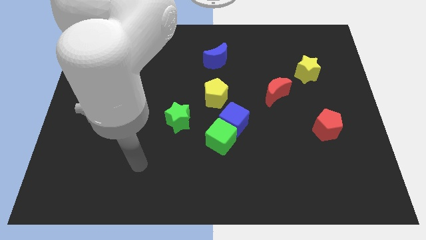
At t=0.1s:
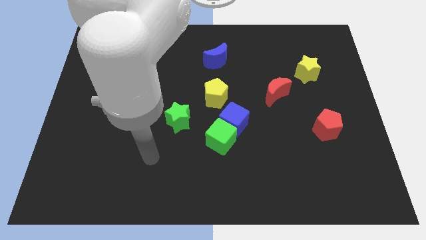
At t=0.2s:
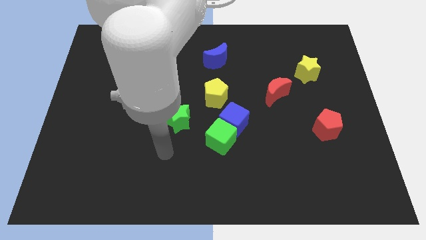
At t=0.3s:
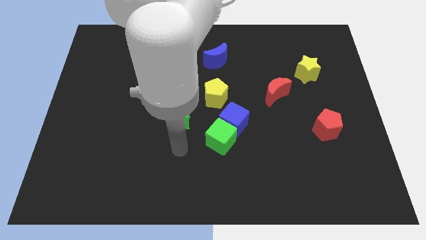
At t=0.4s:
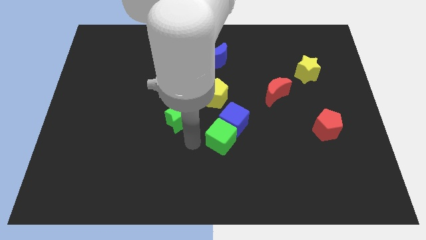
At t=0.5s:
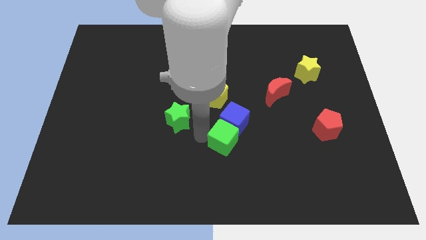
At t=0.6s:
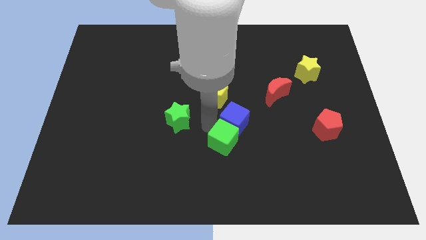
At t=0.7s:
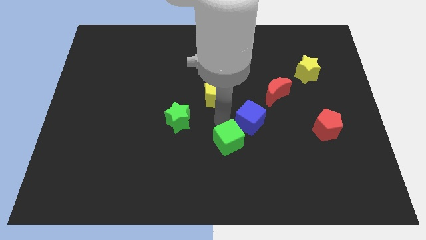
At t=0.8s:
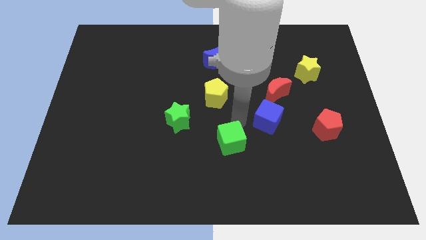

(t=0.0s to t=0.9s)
separate the green cube from the blue cube

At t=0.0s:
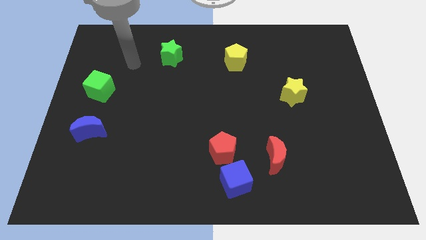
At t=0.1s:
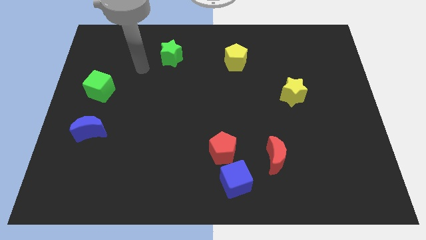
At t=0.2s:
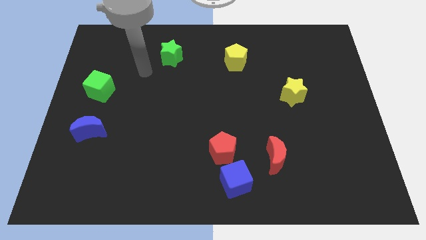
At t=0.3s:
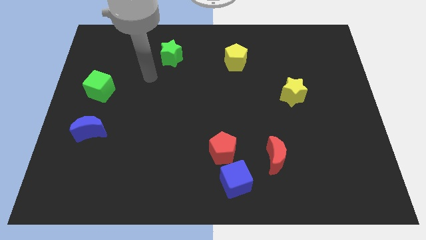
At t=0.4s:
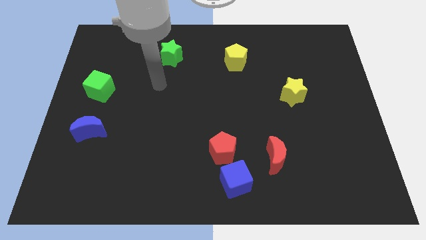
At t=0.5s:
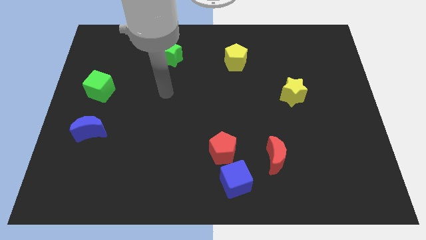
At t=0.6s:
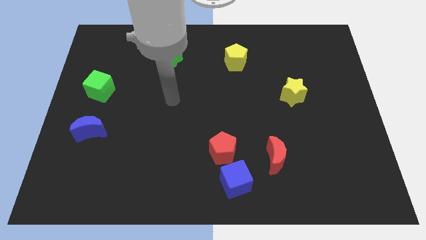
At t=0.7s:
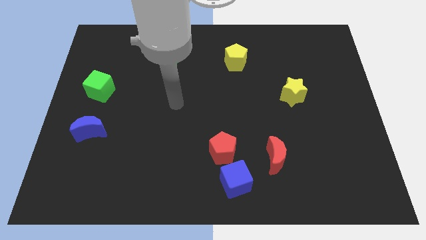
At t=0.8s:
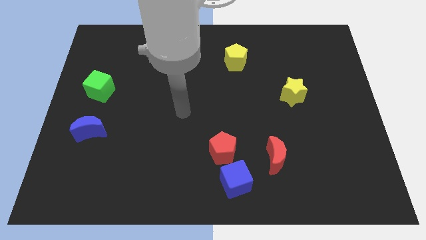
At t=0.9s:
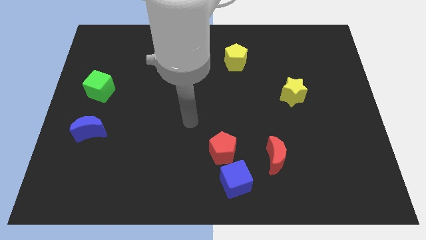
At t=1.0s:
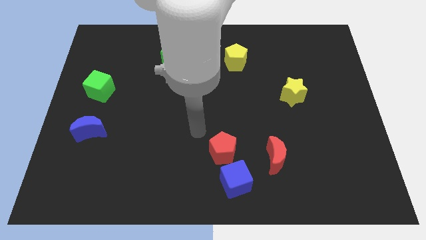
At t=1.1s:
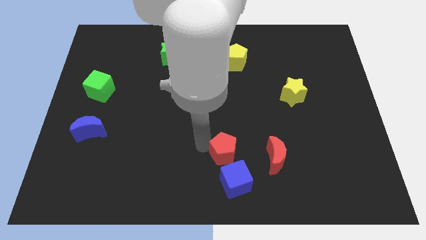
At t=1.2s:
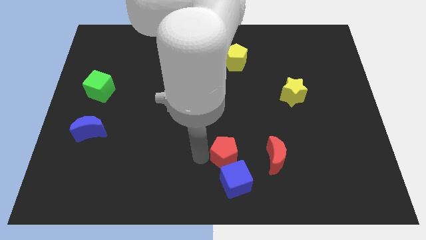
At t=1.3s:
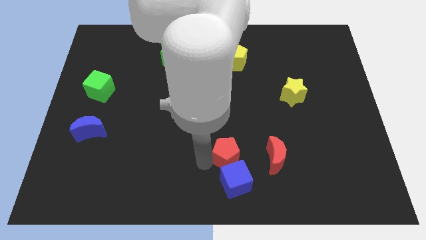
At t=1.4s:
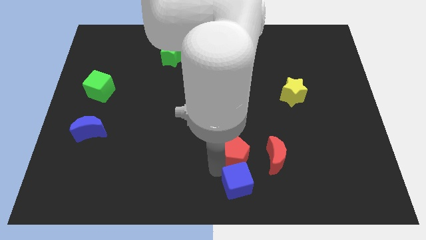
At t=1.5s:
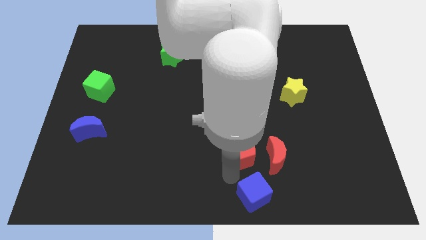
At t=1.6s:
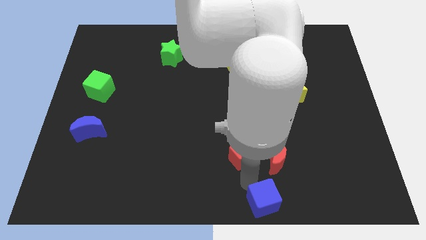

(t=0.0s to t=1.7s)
move the red pentagon away from the blue cube

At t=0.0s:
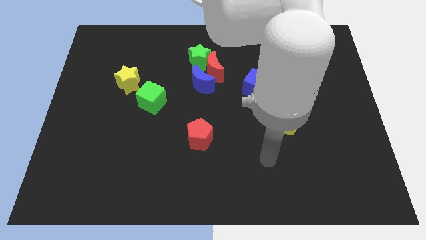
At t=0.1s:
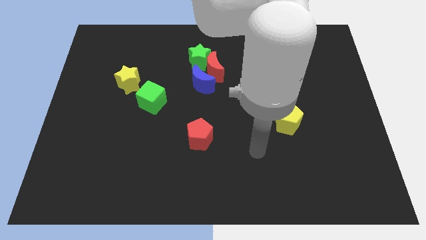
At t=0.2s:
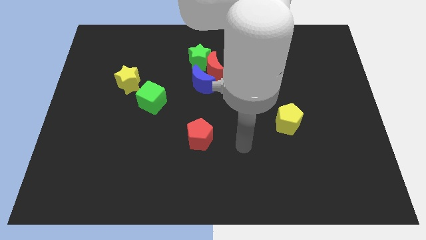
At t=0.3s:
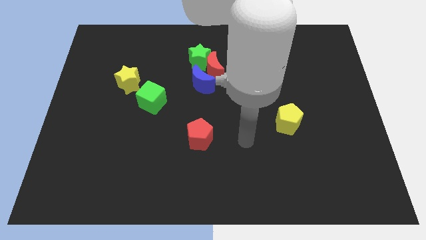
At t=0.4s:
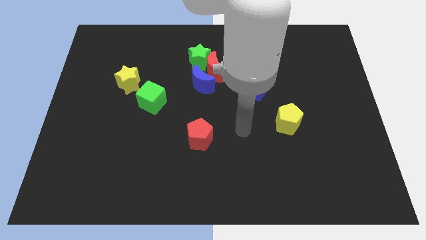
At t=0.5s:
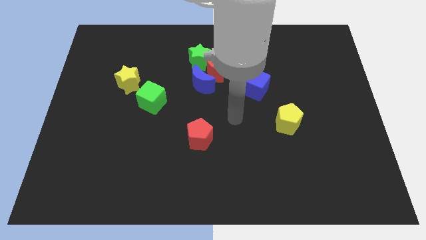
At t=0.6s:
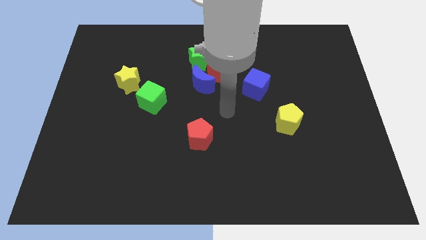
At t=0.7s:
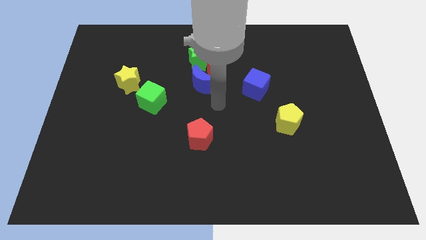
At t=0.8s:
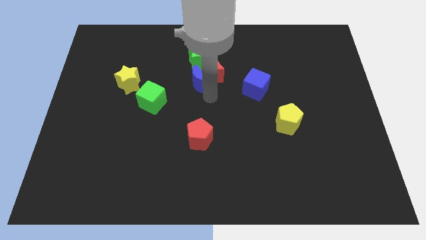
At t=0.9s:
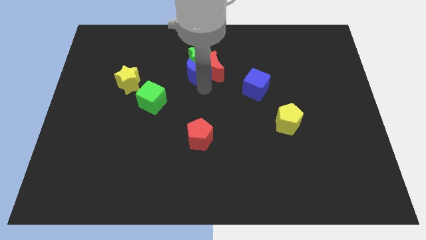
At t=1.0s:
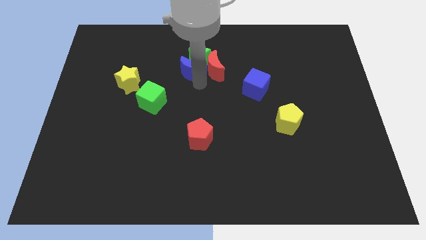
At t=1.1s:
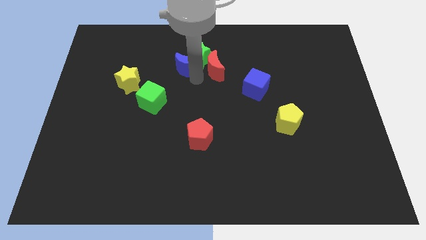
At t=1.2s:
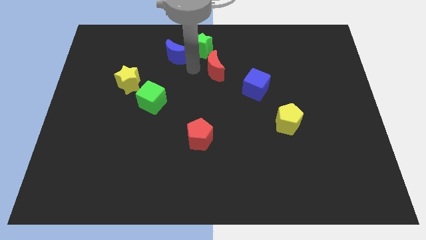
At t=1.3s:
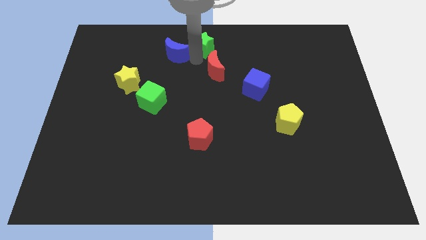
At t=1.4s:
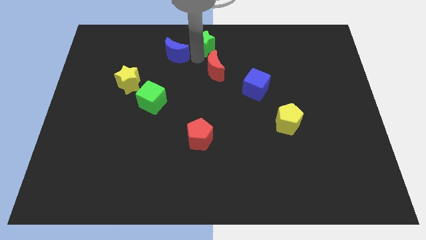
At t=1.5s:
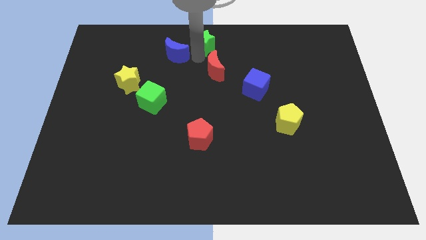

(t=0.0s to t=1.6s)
pull the red moon apart from the green star and blue moon

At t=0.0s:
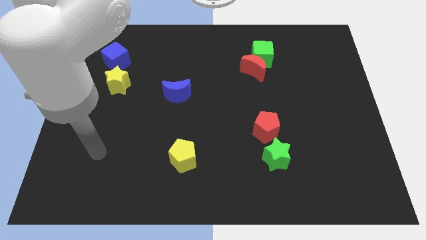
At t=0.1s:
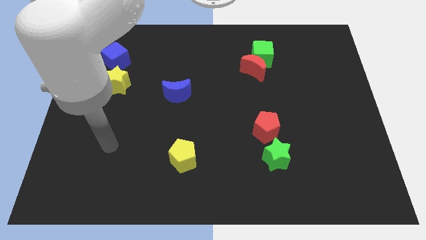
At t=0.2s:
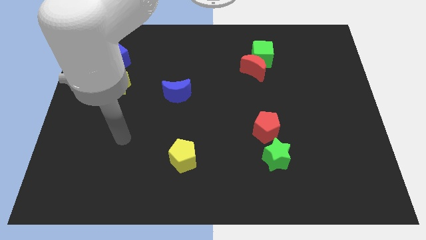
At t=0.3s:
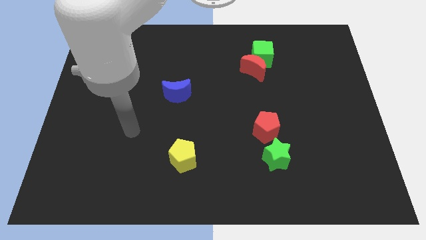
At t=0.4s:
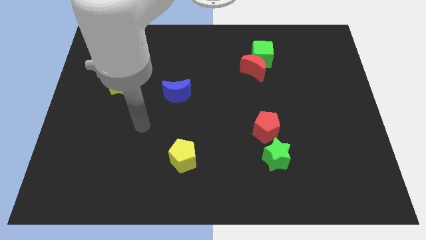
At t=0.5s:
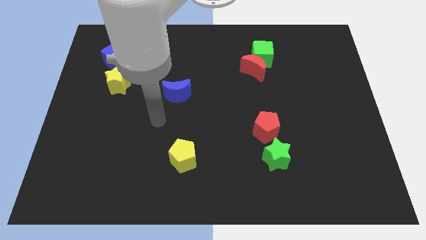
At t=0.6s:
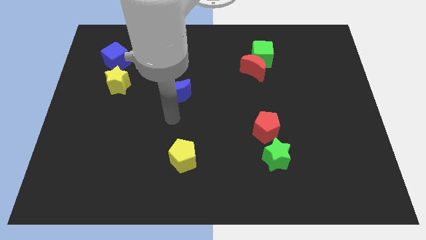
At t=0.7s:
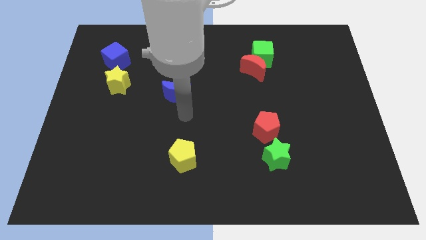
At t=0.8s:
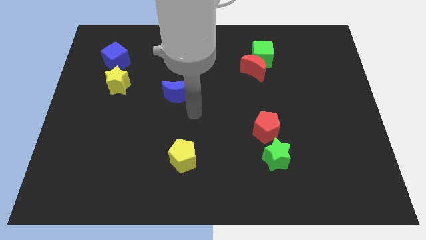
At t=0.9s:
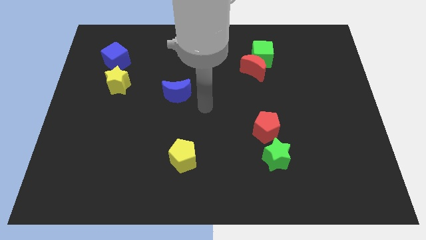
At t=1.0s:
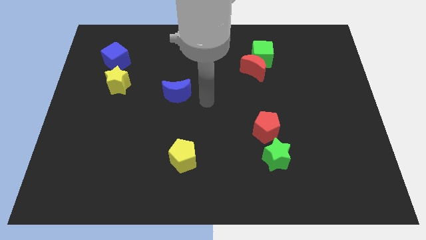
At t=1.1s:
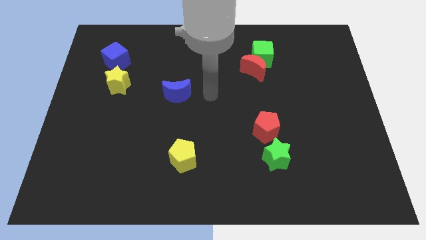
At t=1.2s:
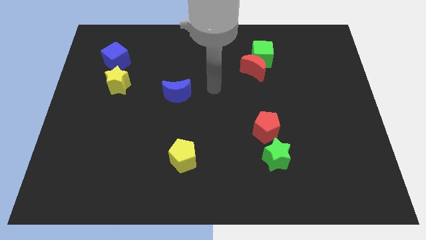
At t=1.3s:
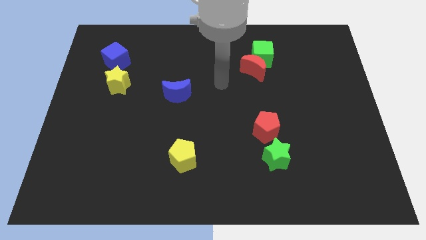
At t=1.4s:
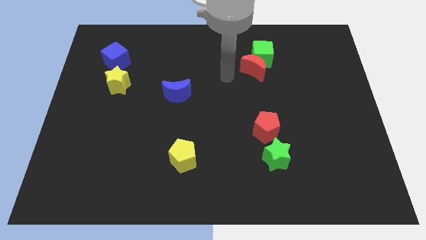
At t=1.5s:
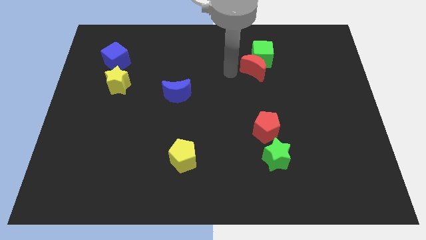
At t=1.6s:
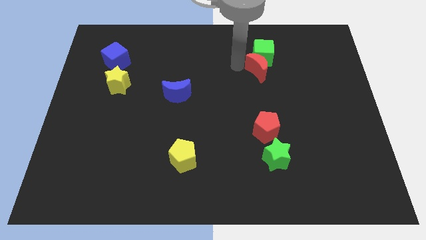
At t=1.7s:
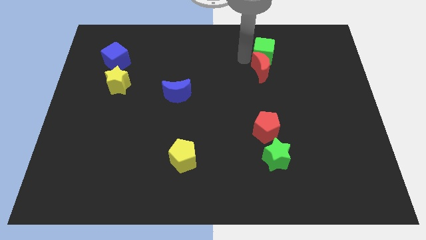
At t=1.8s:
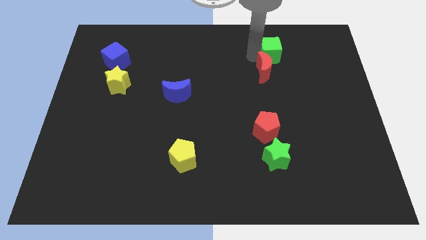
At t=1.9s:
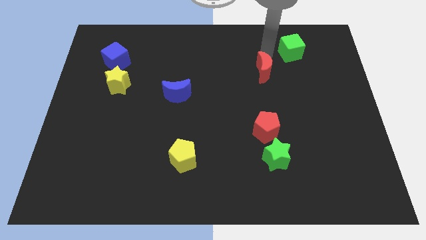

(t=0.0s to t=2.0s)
separate the red moon from the green cube

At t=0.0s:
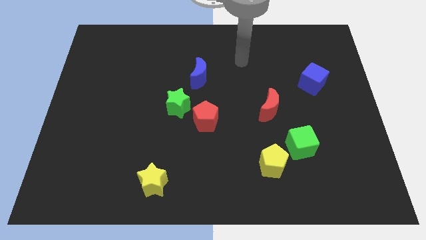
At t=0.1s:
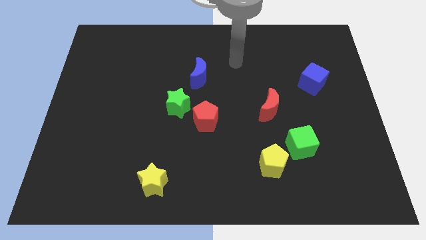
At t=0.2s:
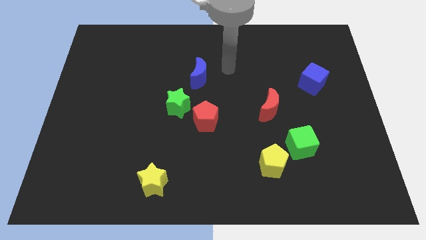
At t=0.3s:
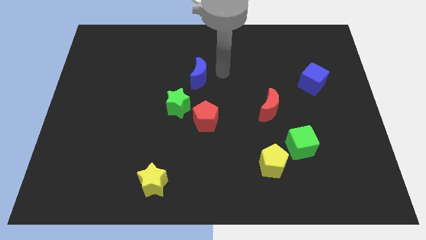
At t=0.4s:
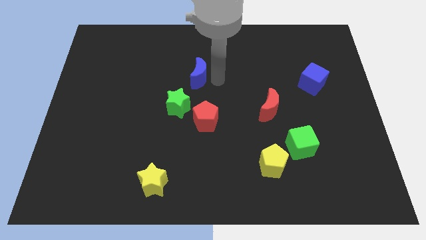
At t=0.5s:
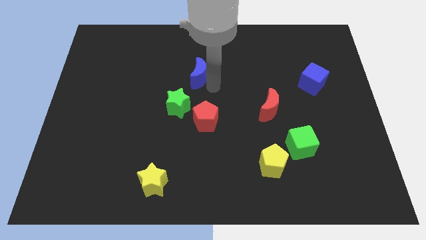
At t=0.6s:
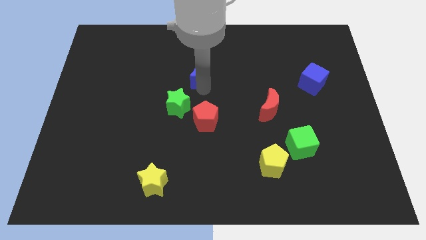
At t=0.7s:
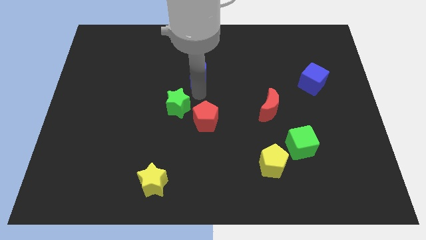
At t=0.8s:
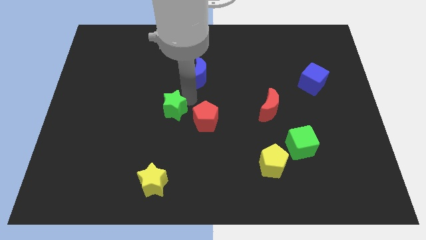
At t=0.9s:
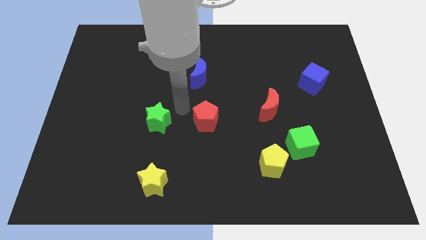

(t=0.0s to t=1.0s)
separate the red pentagon from the green star

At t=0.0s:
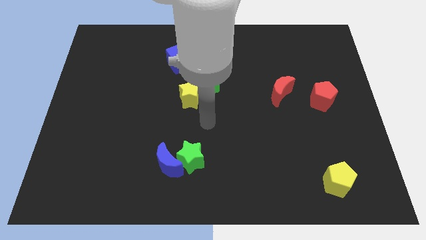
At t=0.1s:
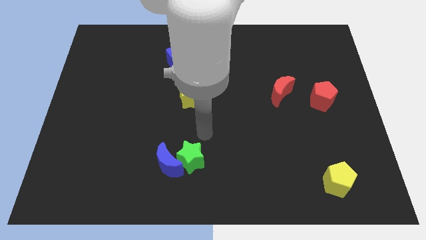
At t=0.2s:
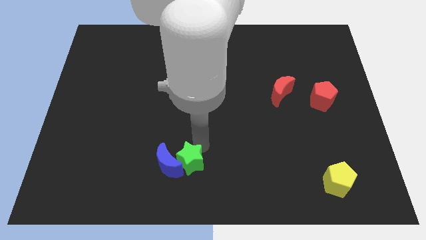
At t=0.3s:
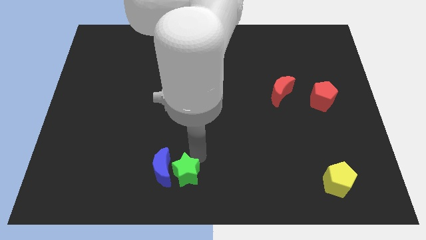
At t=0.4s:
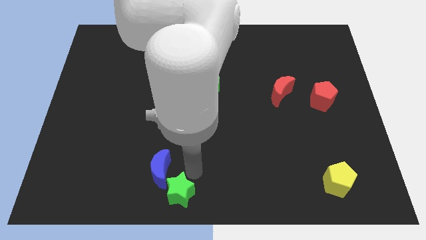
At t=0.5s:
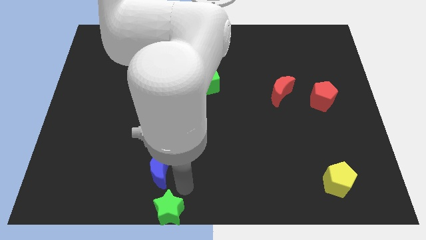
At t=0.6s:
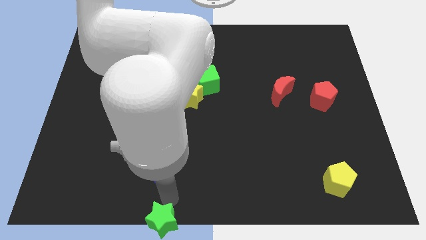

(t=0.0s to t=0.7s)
pull the blue moon apart from the green star

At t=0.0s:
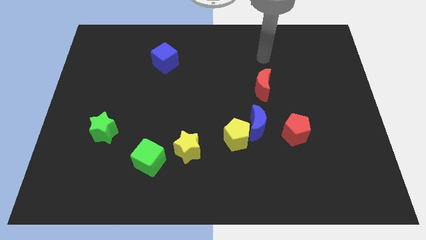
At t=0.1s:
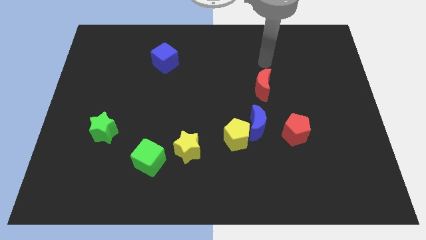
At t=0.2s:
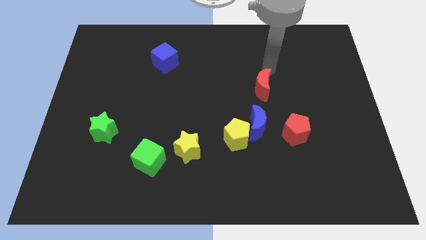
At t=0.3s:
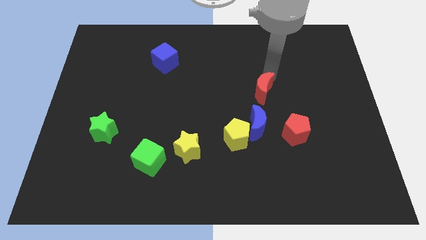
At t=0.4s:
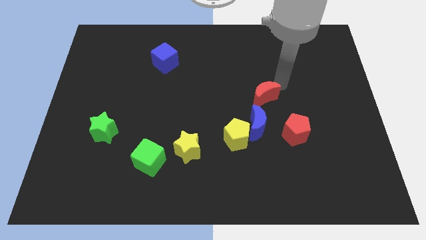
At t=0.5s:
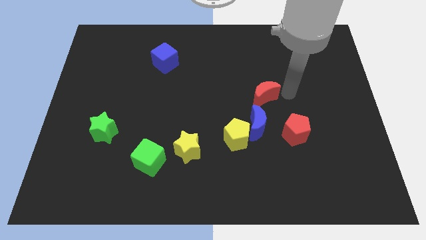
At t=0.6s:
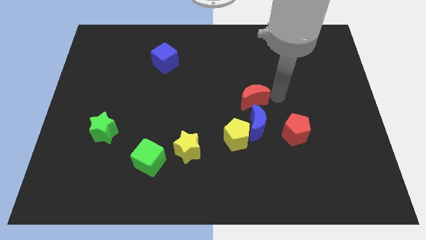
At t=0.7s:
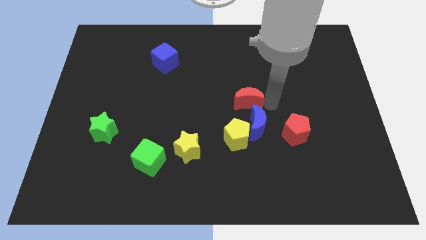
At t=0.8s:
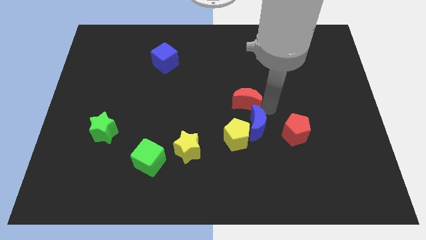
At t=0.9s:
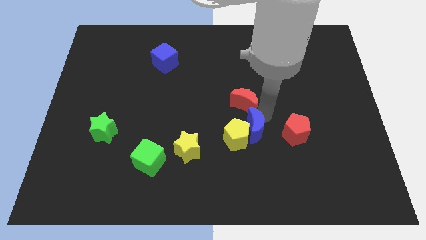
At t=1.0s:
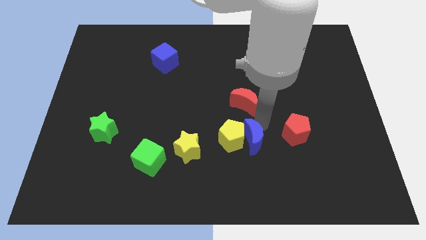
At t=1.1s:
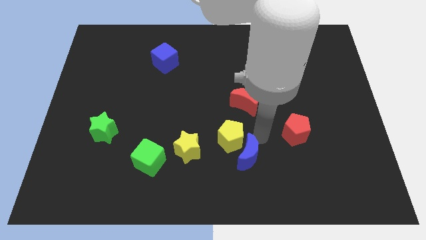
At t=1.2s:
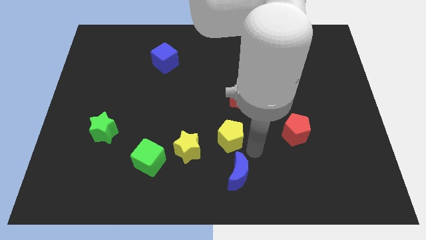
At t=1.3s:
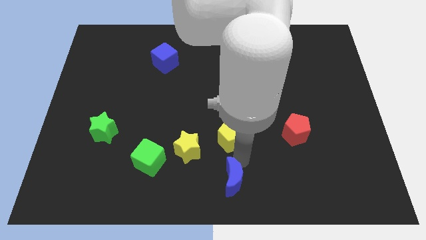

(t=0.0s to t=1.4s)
separate the yellow pentagon from the blue moon
